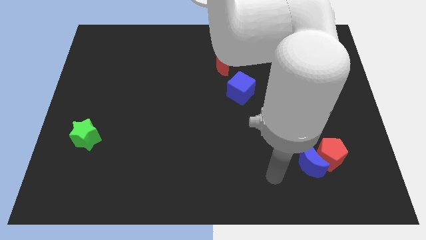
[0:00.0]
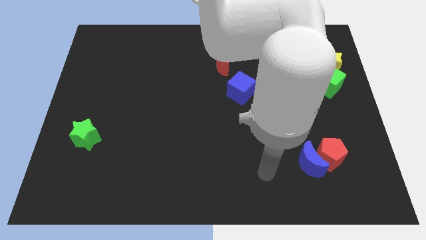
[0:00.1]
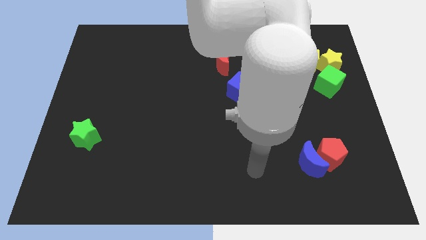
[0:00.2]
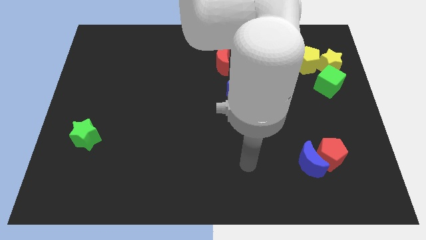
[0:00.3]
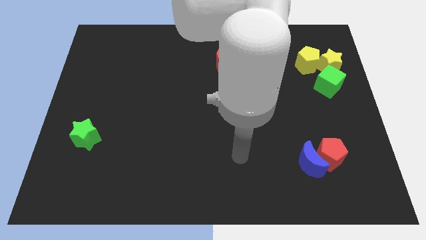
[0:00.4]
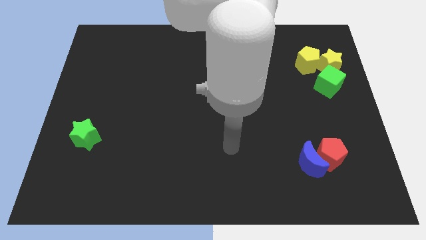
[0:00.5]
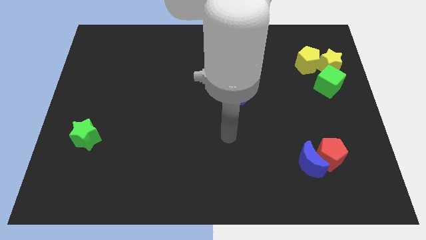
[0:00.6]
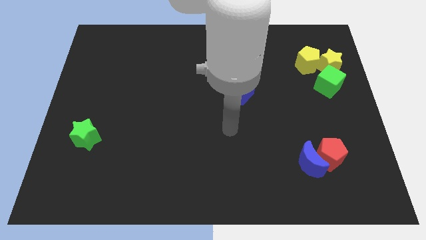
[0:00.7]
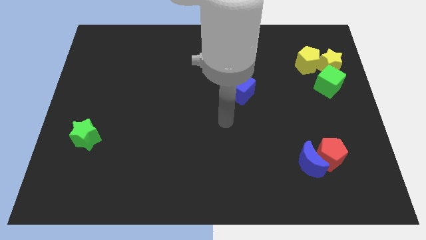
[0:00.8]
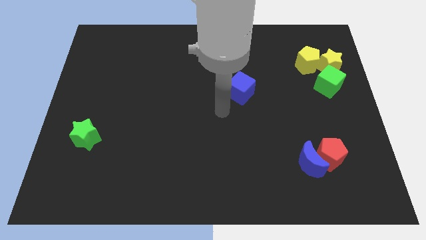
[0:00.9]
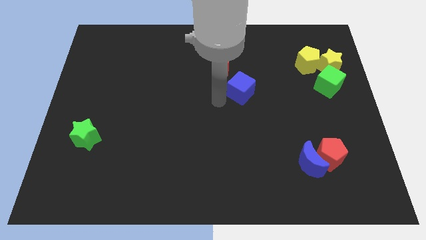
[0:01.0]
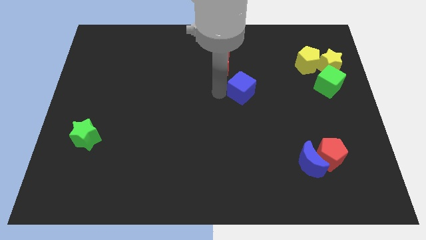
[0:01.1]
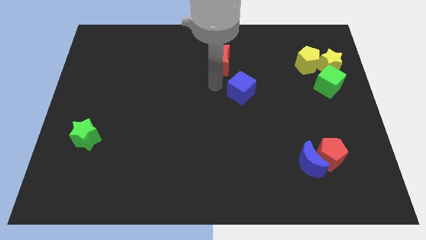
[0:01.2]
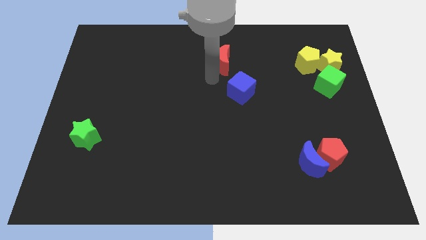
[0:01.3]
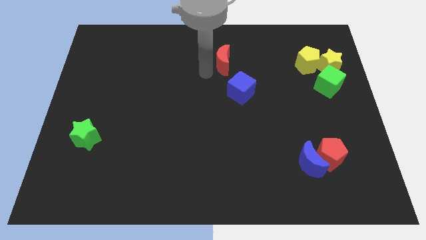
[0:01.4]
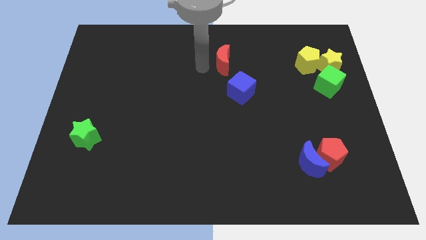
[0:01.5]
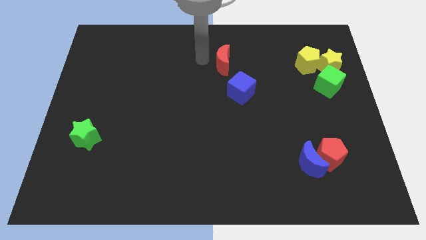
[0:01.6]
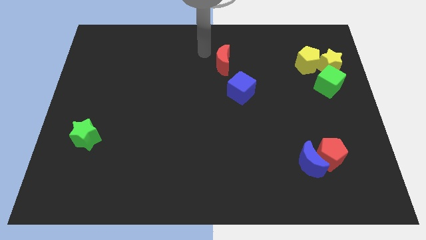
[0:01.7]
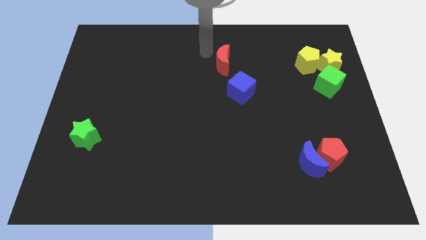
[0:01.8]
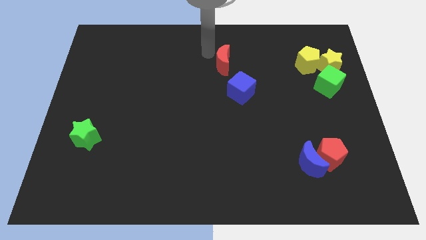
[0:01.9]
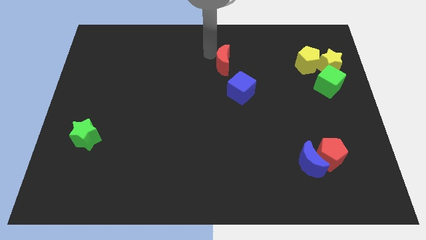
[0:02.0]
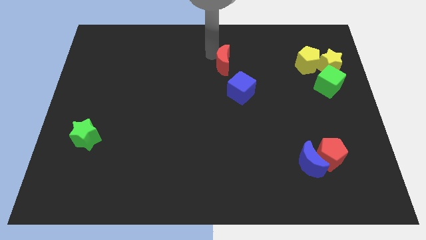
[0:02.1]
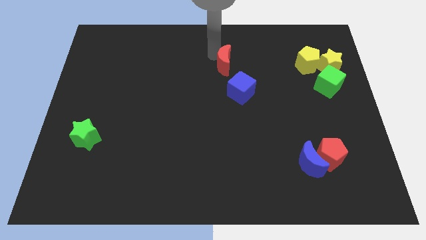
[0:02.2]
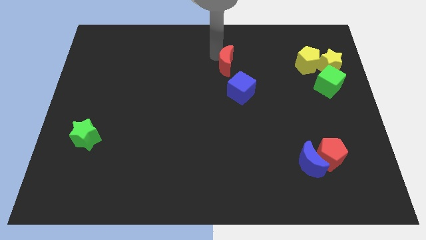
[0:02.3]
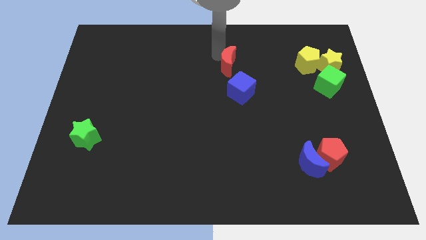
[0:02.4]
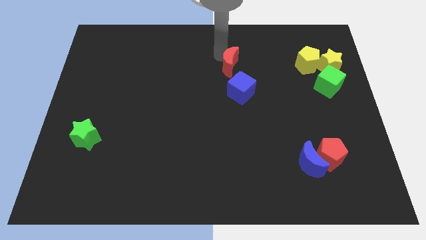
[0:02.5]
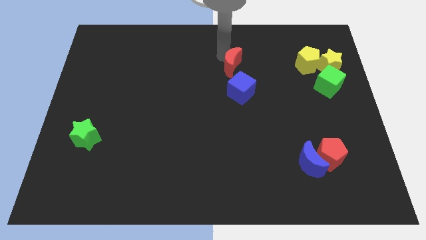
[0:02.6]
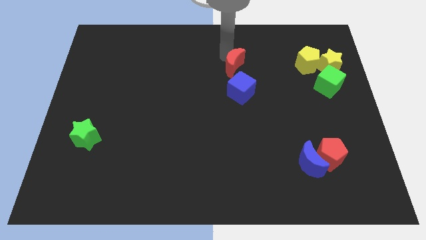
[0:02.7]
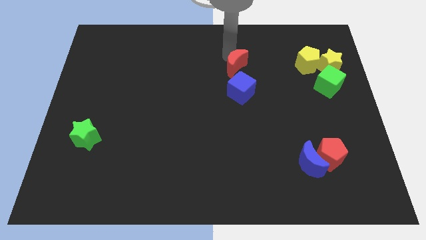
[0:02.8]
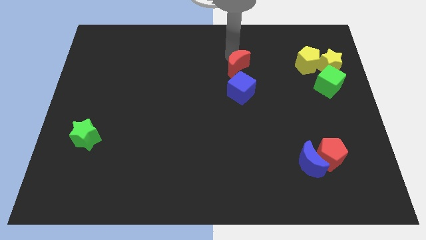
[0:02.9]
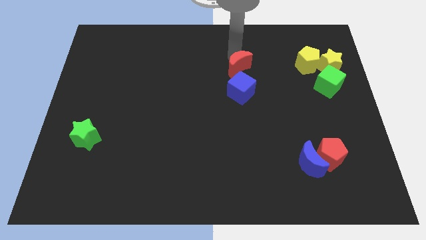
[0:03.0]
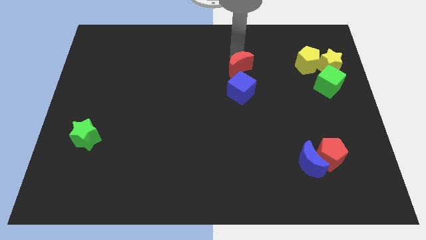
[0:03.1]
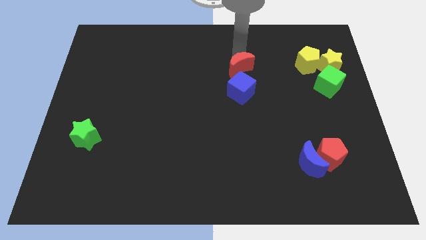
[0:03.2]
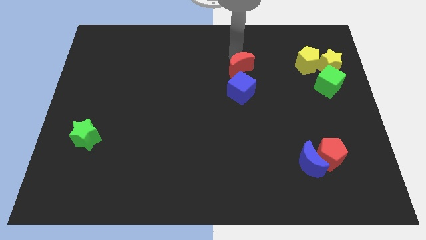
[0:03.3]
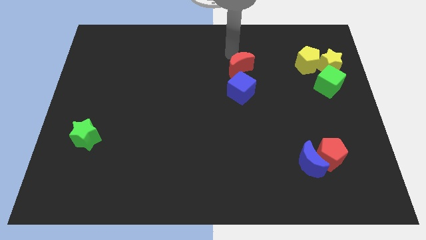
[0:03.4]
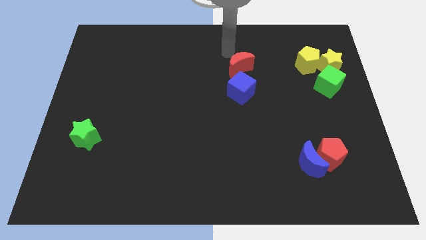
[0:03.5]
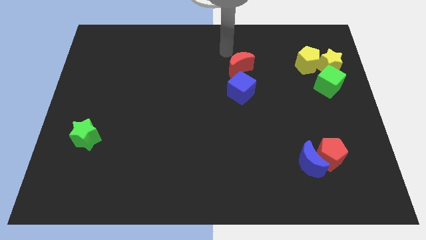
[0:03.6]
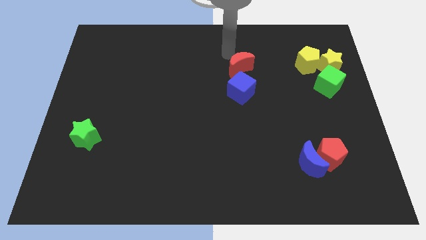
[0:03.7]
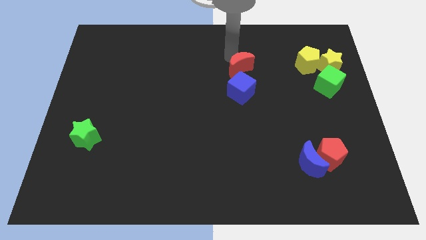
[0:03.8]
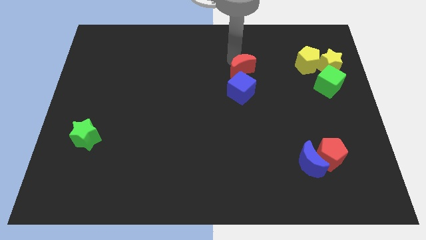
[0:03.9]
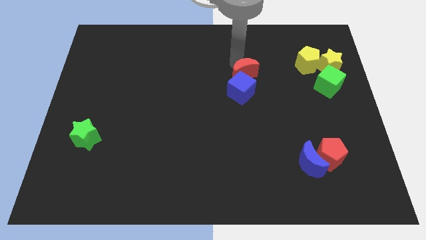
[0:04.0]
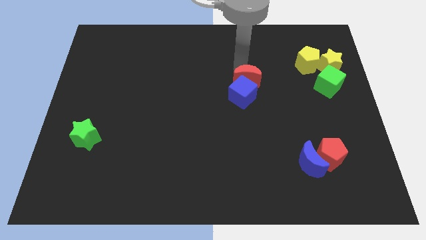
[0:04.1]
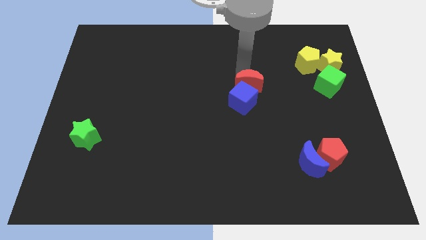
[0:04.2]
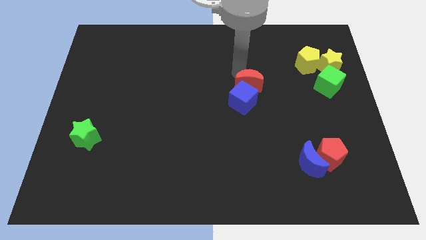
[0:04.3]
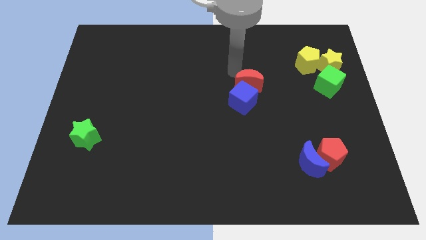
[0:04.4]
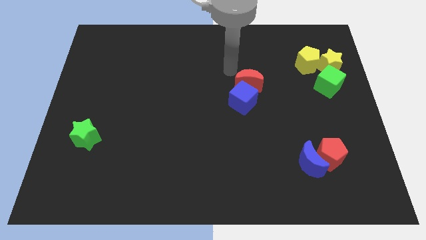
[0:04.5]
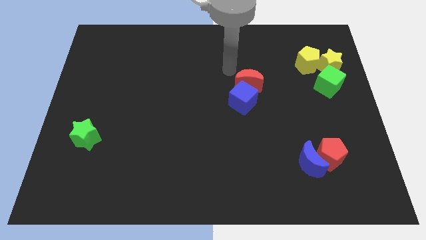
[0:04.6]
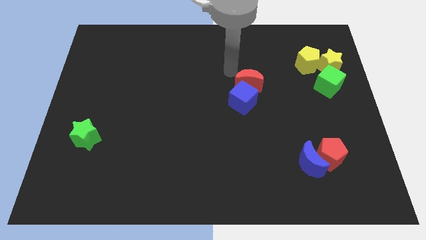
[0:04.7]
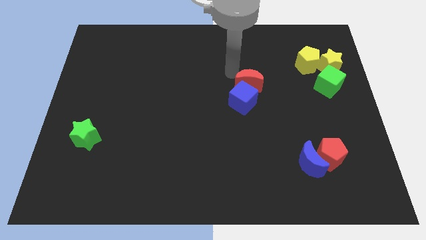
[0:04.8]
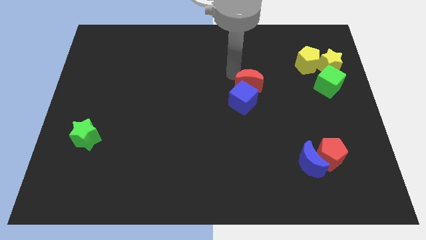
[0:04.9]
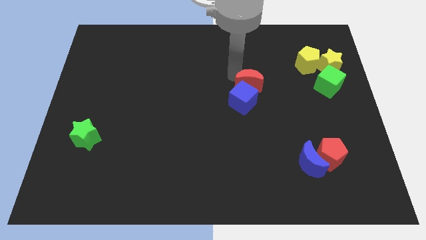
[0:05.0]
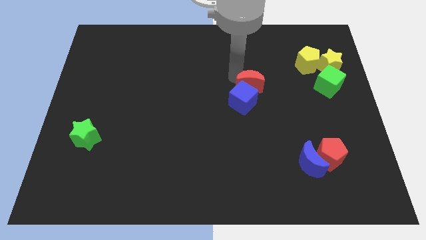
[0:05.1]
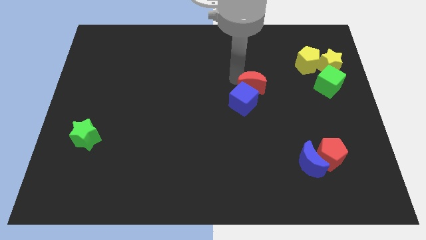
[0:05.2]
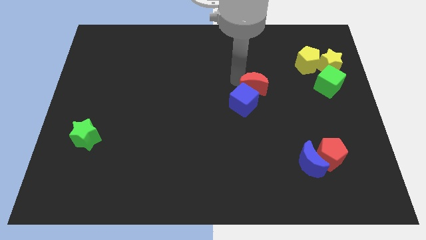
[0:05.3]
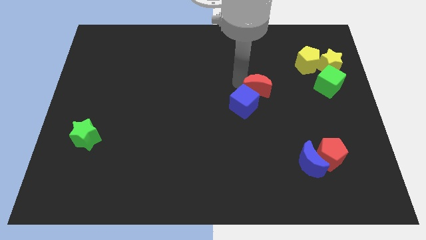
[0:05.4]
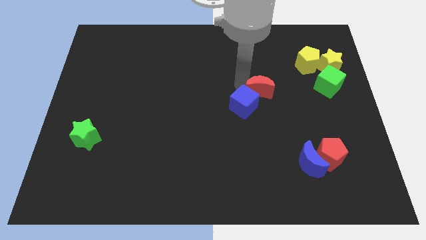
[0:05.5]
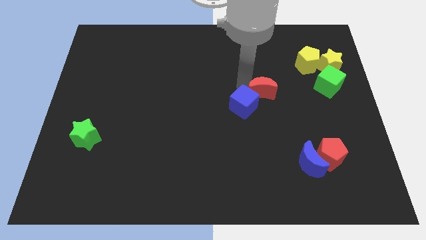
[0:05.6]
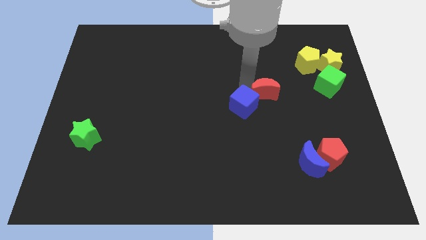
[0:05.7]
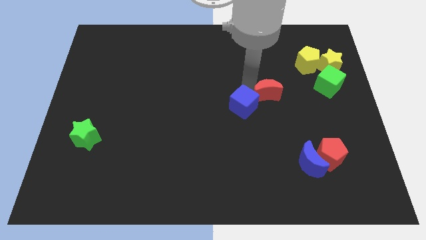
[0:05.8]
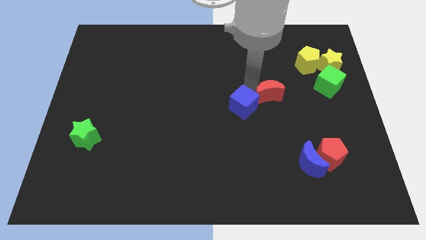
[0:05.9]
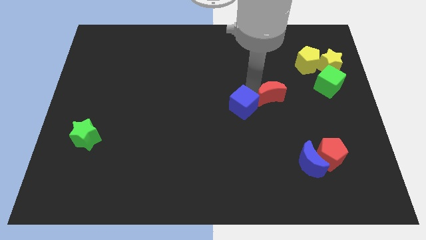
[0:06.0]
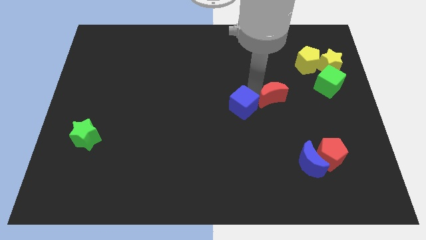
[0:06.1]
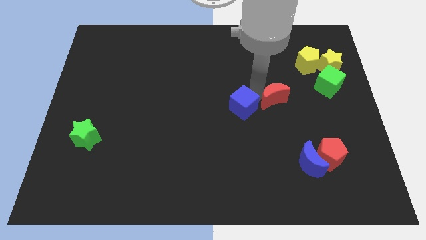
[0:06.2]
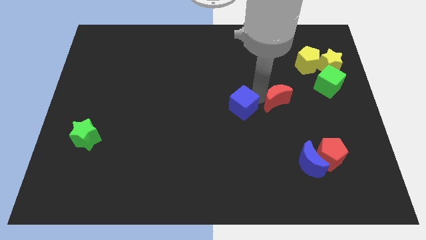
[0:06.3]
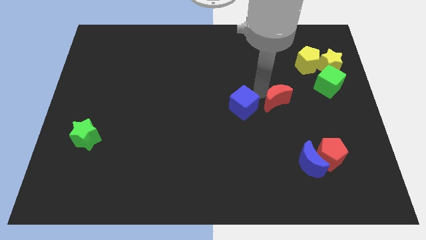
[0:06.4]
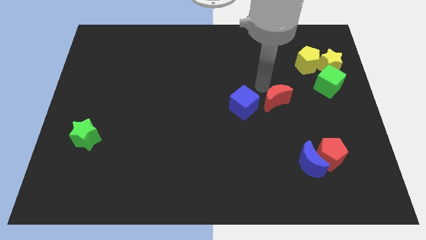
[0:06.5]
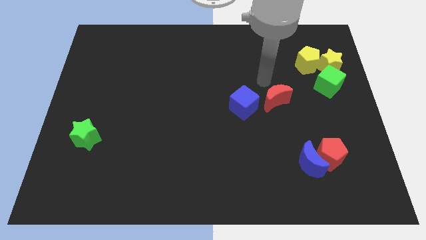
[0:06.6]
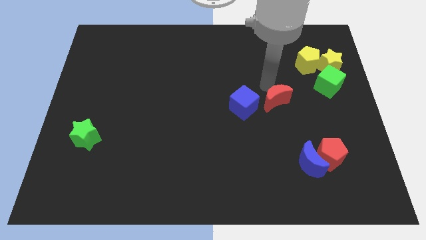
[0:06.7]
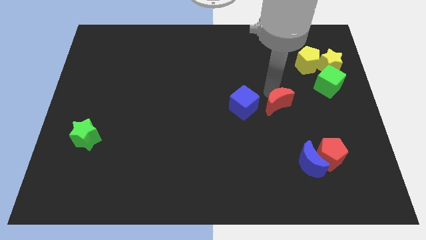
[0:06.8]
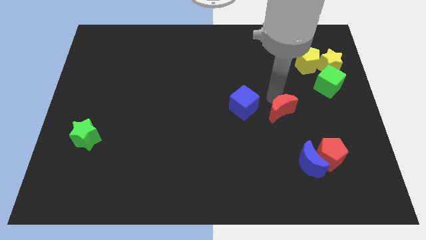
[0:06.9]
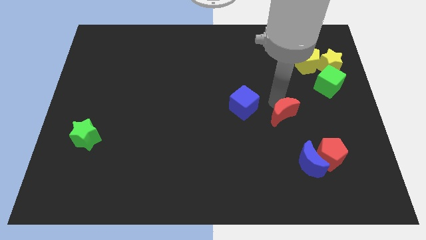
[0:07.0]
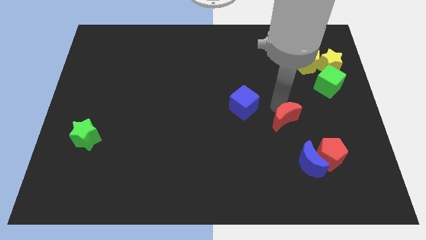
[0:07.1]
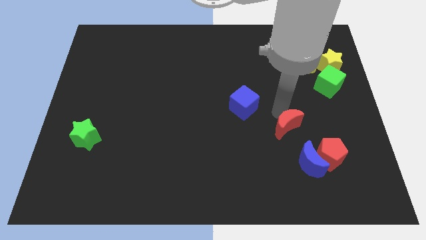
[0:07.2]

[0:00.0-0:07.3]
push the red moon diagonally up and to the left of the red pentagon

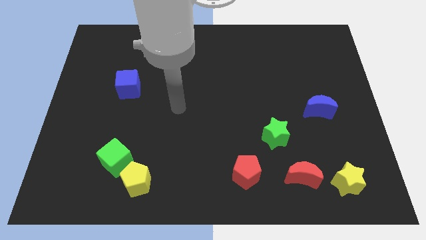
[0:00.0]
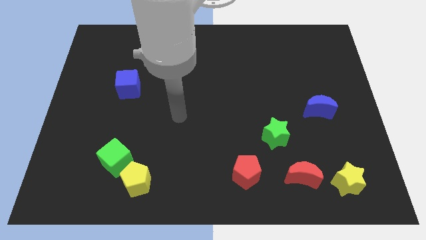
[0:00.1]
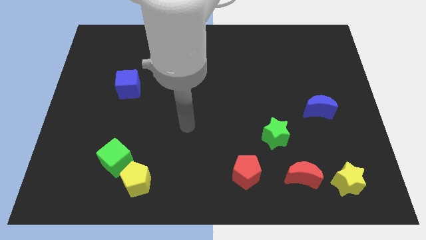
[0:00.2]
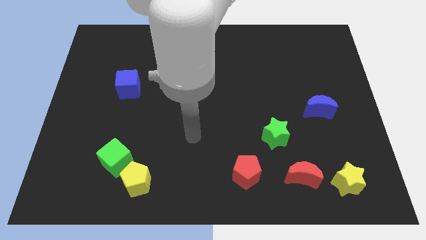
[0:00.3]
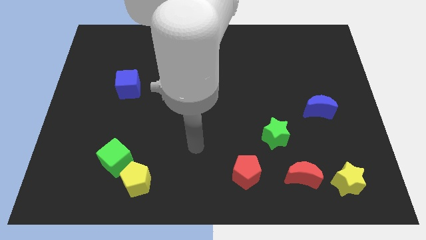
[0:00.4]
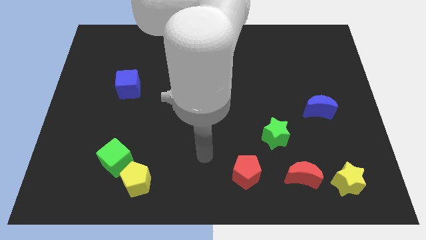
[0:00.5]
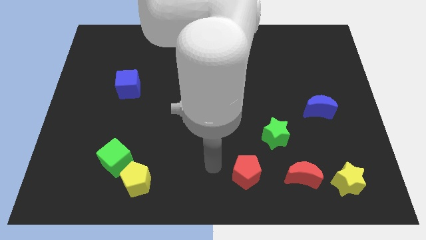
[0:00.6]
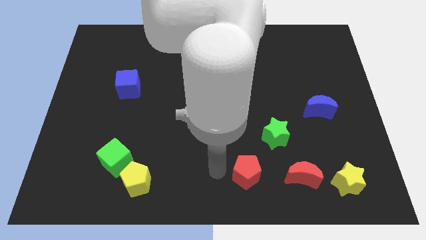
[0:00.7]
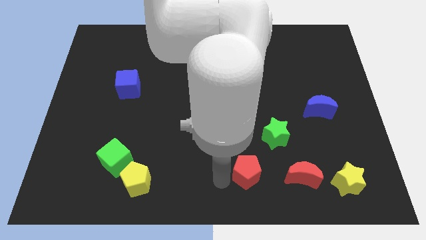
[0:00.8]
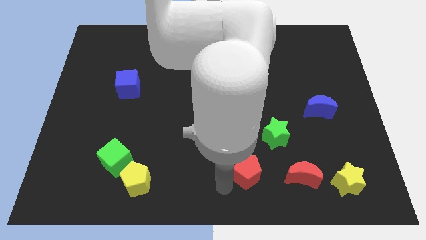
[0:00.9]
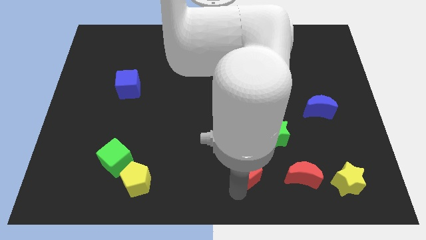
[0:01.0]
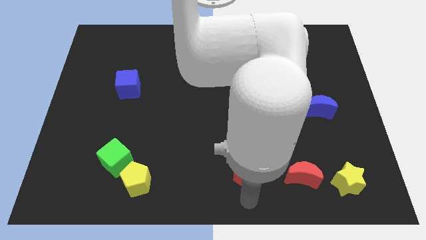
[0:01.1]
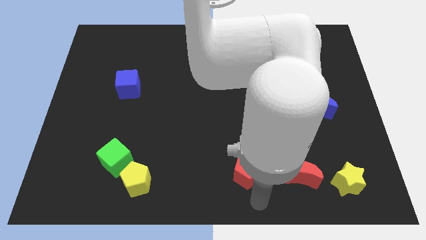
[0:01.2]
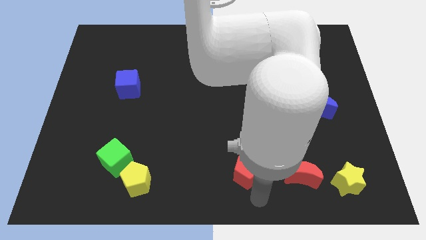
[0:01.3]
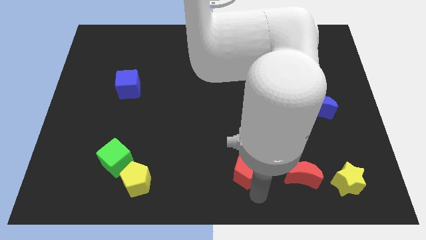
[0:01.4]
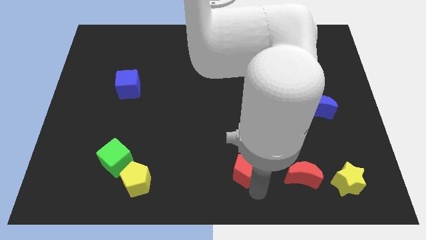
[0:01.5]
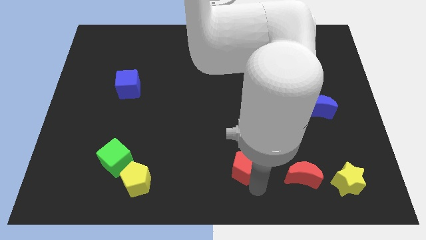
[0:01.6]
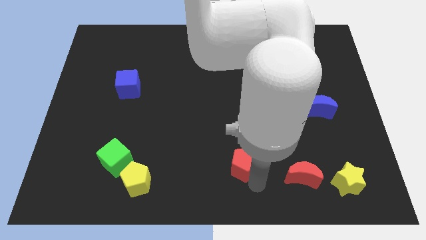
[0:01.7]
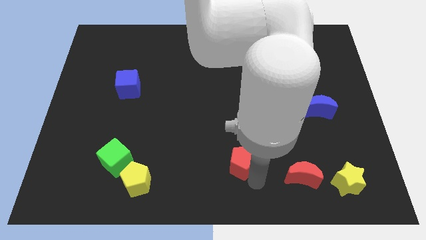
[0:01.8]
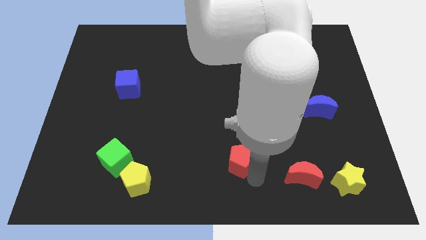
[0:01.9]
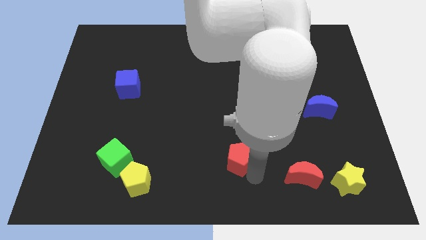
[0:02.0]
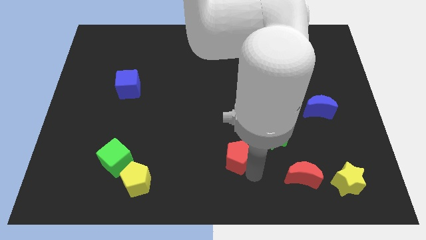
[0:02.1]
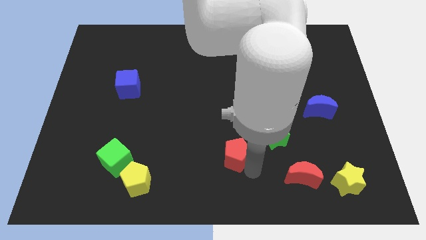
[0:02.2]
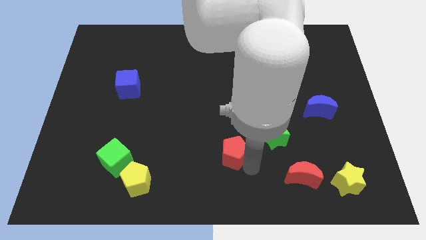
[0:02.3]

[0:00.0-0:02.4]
move the red pentagon to the left side of the green star
